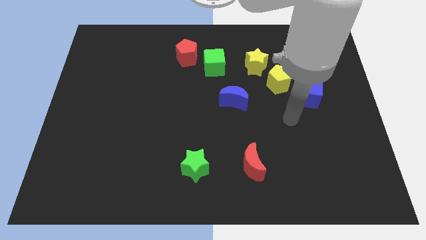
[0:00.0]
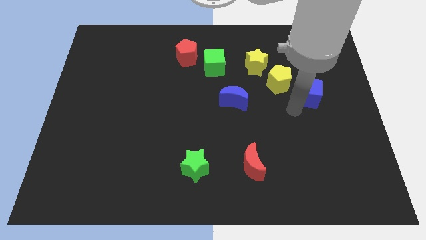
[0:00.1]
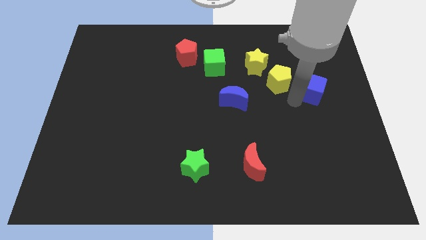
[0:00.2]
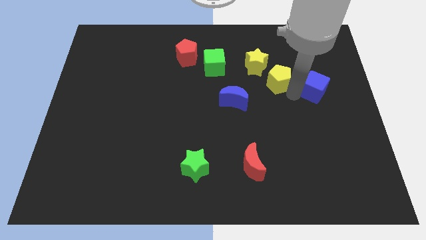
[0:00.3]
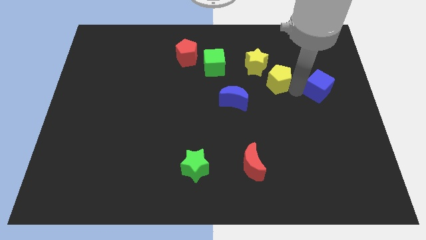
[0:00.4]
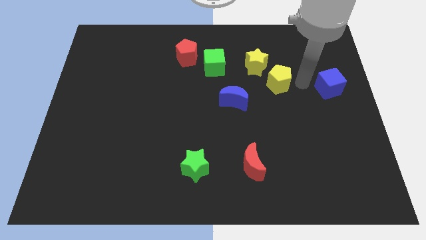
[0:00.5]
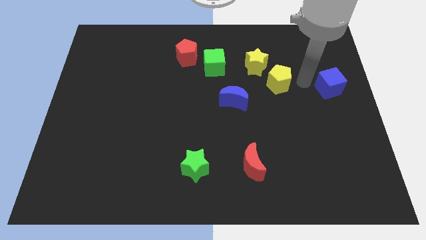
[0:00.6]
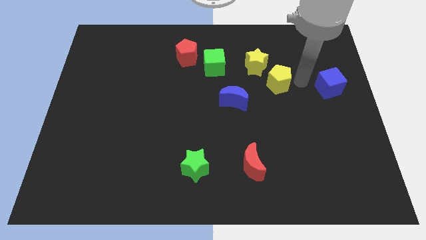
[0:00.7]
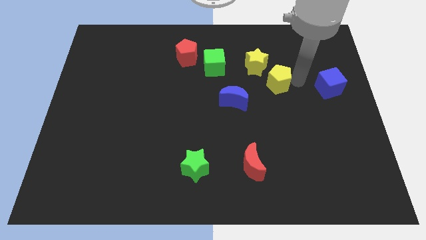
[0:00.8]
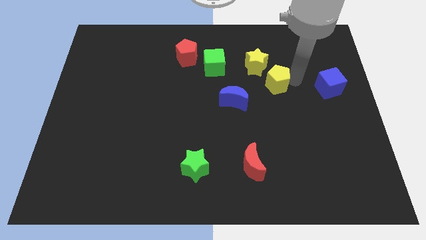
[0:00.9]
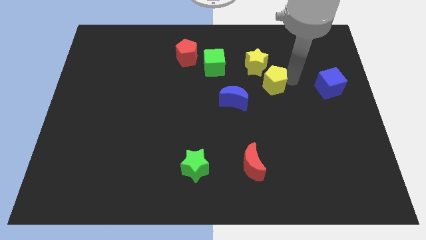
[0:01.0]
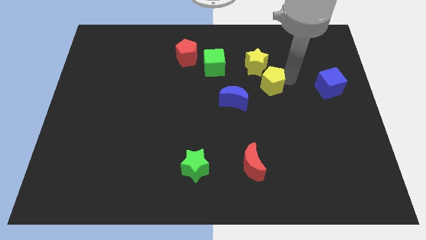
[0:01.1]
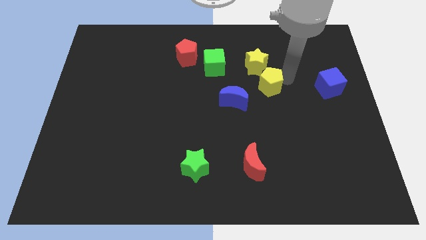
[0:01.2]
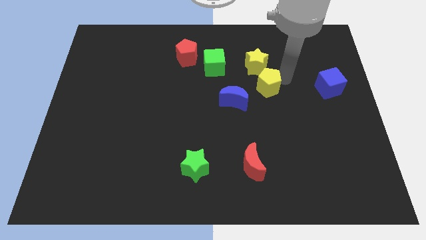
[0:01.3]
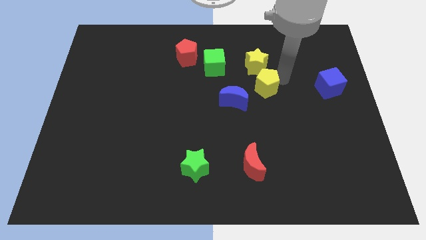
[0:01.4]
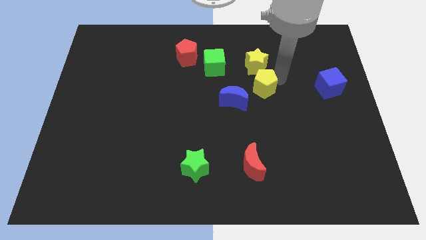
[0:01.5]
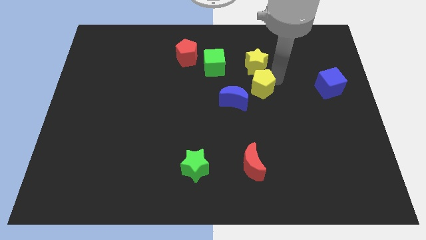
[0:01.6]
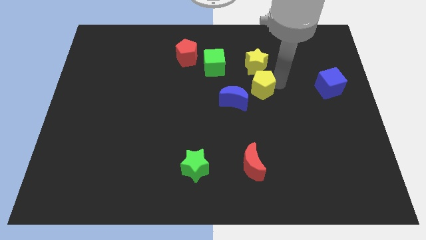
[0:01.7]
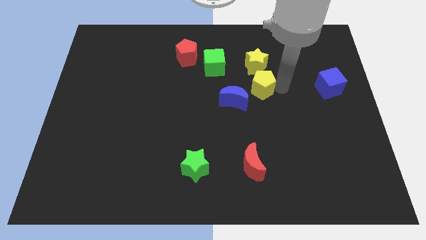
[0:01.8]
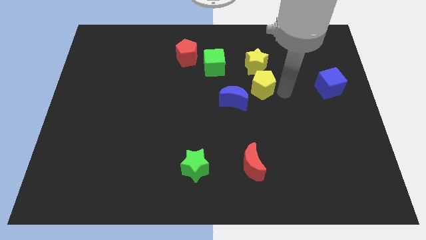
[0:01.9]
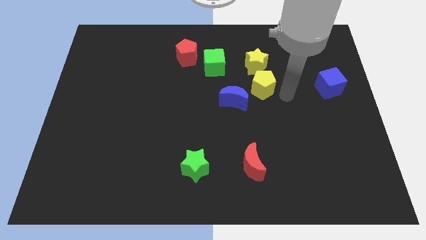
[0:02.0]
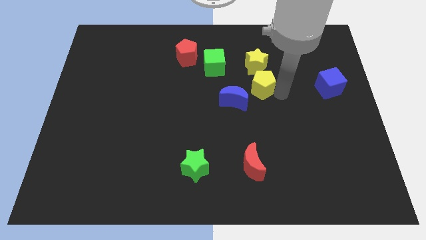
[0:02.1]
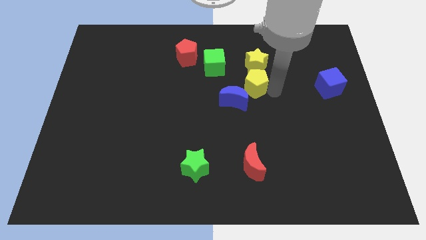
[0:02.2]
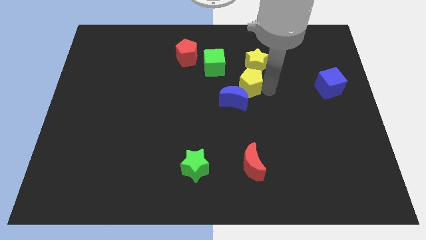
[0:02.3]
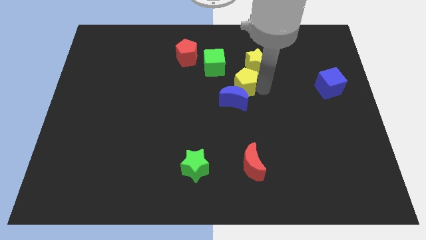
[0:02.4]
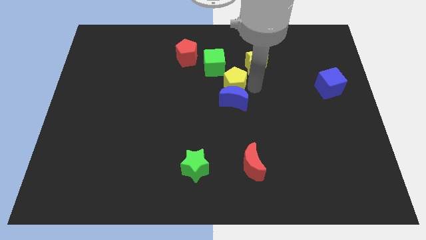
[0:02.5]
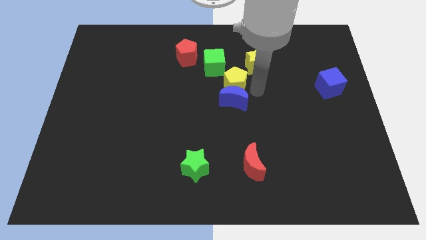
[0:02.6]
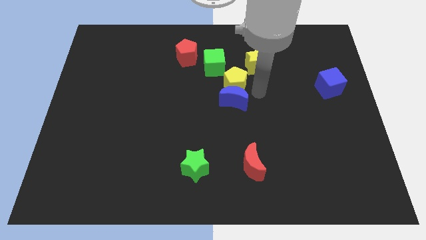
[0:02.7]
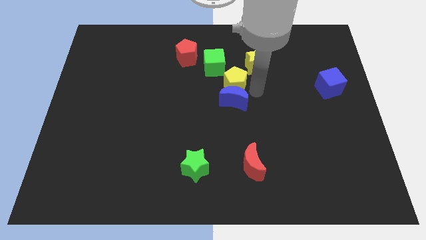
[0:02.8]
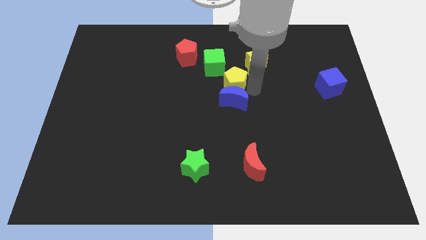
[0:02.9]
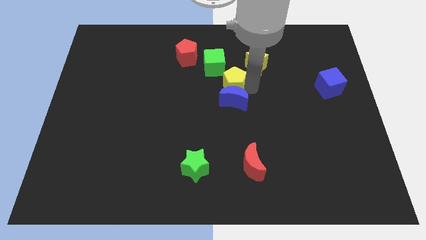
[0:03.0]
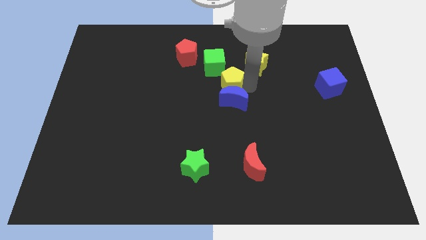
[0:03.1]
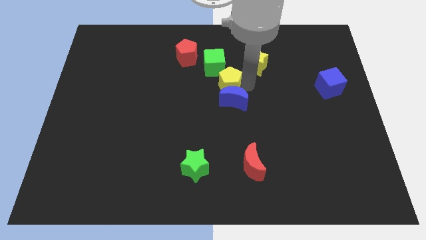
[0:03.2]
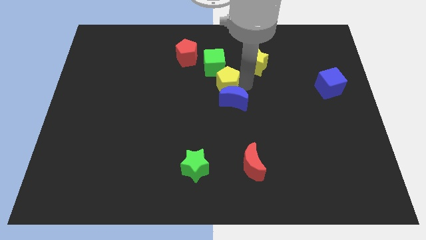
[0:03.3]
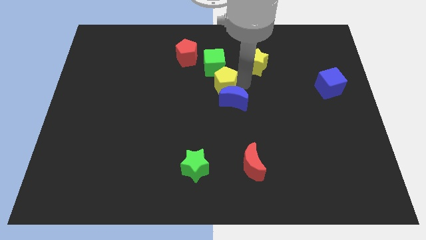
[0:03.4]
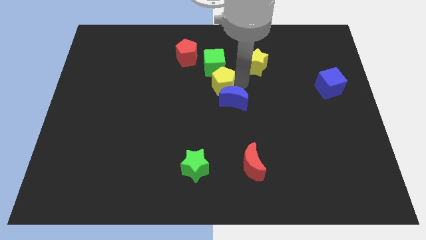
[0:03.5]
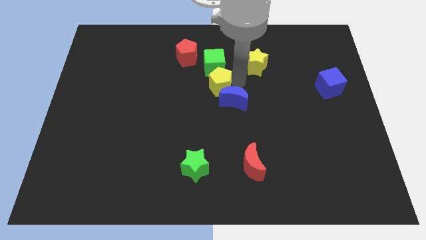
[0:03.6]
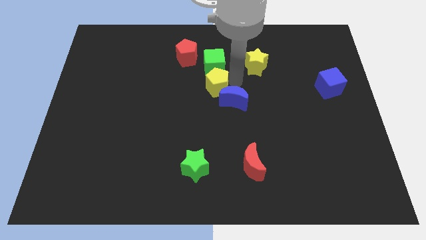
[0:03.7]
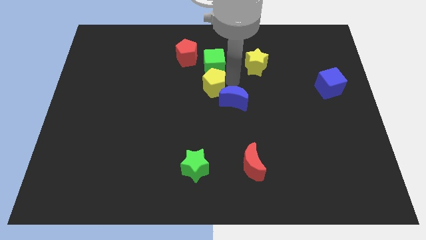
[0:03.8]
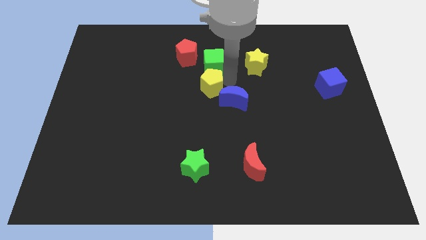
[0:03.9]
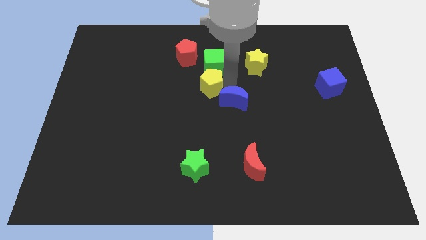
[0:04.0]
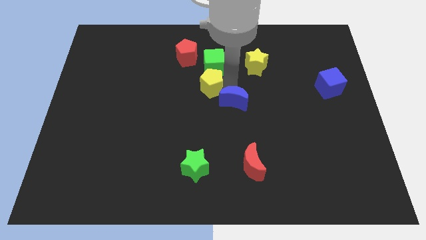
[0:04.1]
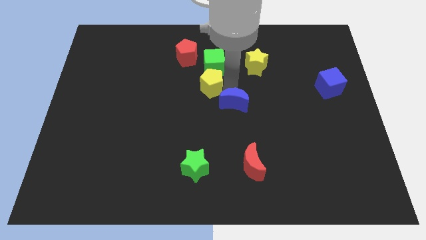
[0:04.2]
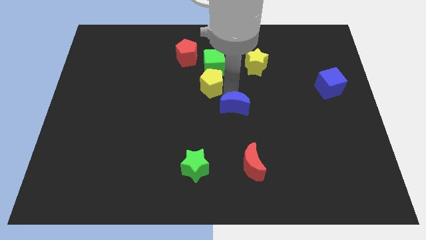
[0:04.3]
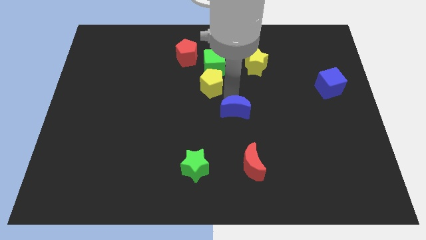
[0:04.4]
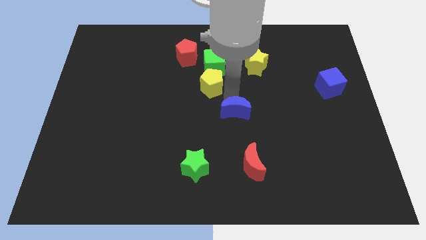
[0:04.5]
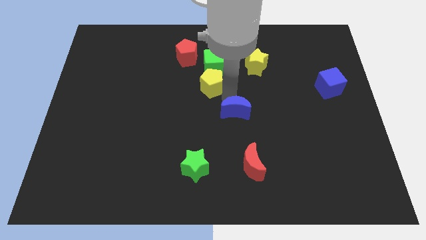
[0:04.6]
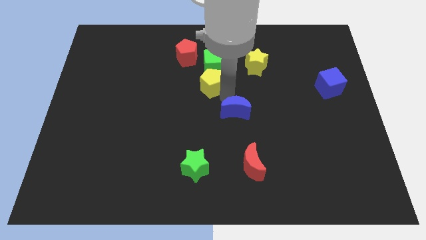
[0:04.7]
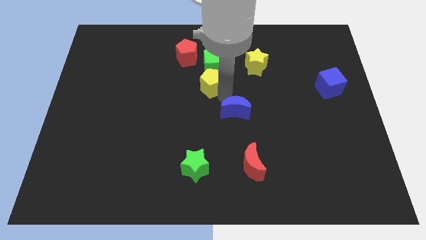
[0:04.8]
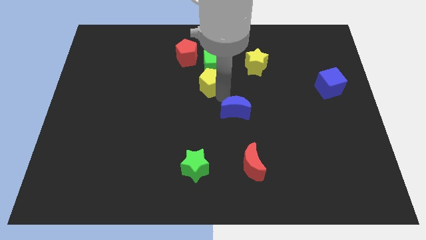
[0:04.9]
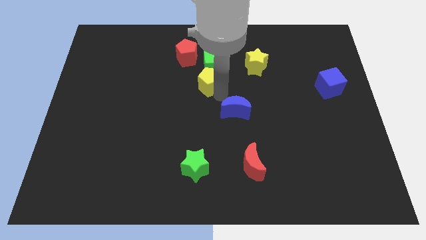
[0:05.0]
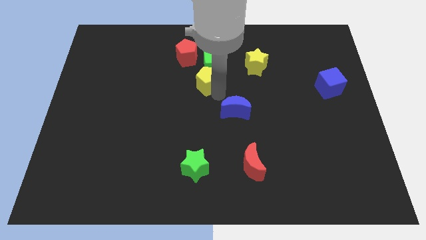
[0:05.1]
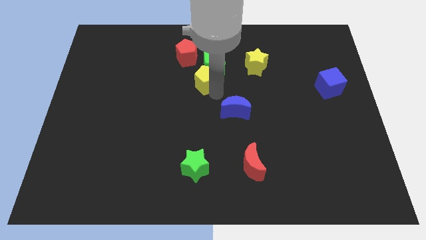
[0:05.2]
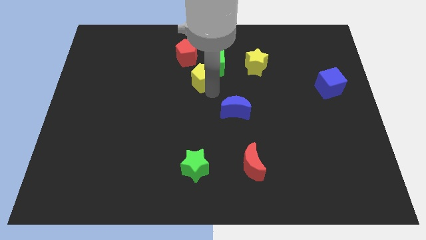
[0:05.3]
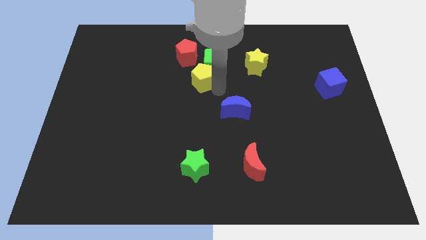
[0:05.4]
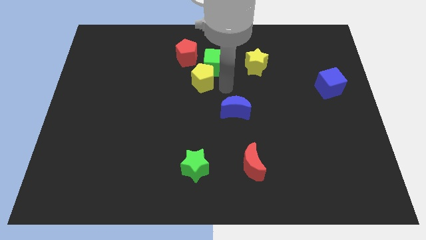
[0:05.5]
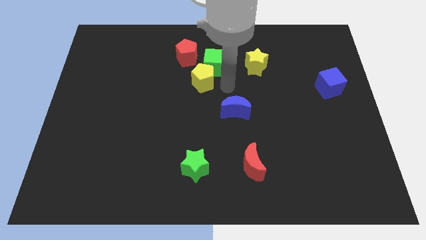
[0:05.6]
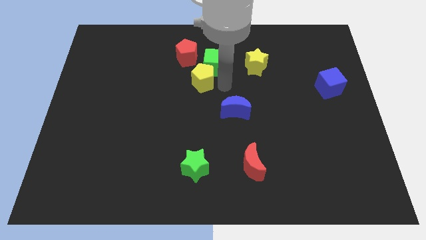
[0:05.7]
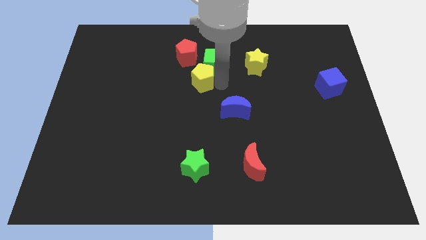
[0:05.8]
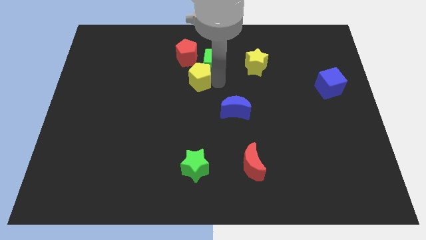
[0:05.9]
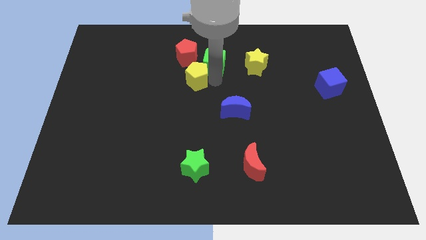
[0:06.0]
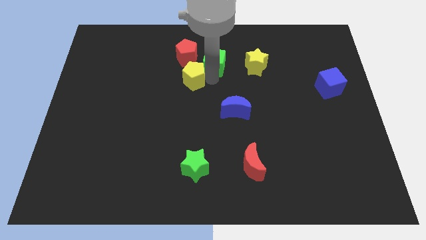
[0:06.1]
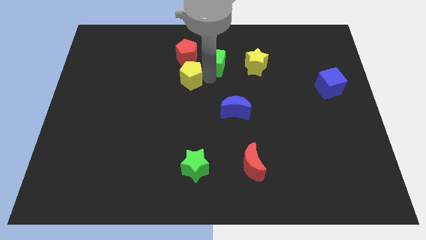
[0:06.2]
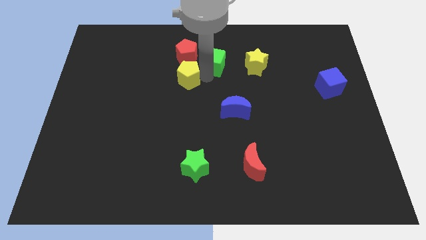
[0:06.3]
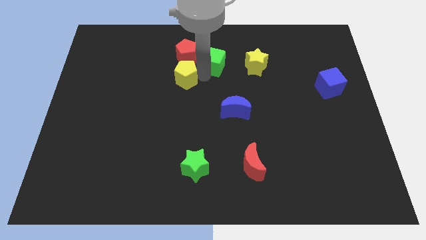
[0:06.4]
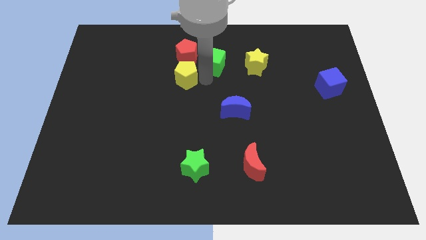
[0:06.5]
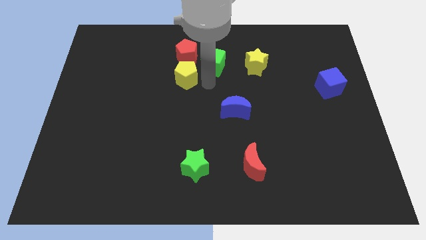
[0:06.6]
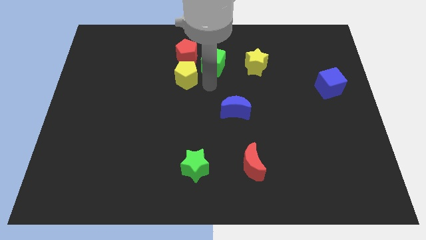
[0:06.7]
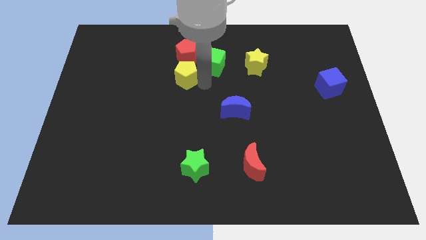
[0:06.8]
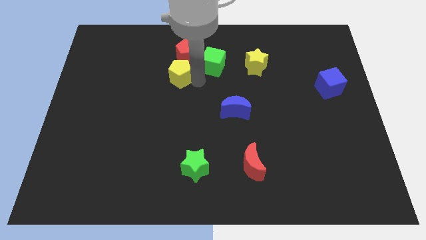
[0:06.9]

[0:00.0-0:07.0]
slide the yellow pentagon diagonally down and to the left of the red pentagon

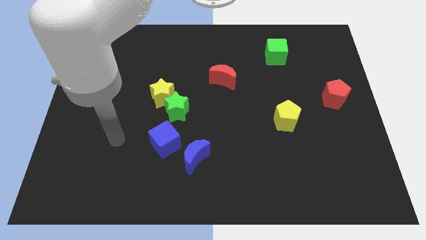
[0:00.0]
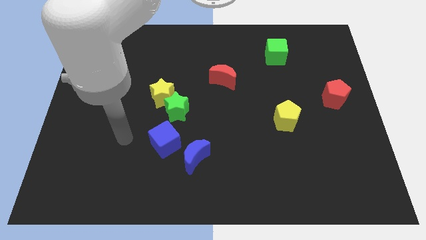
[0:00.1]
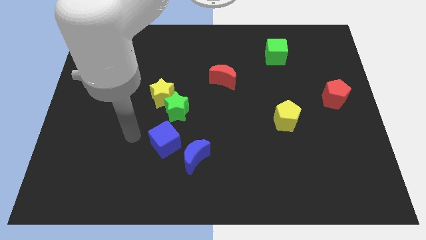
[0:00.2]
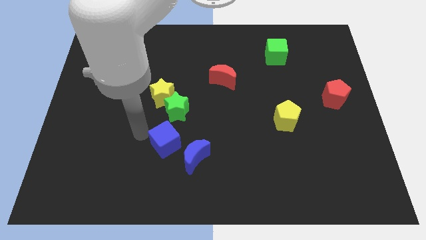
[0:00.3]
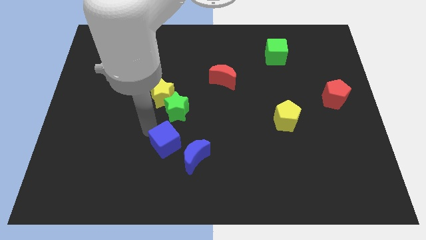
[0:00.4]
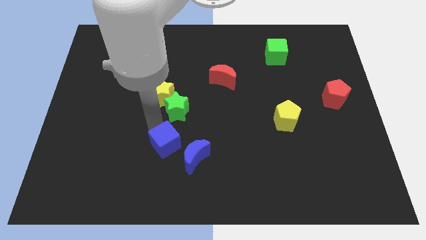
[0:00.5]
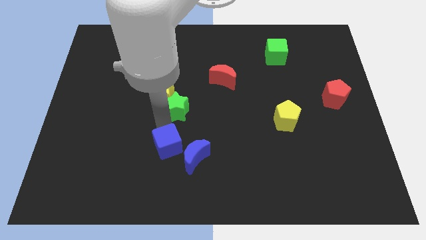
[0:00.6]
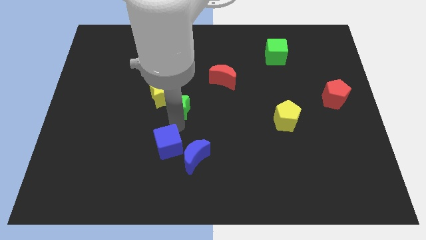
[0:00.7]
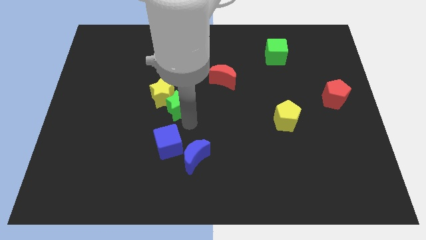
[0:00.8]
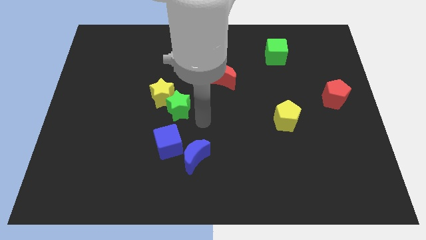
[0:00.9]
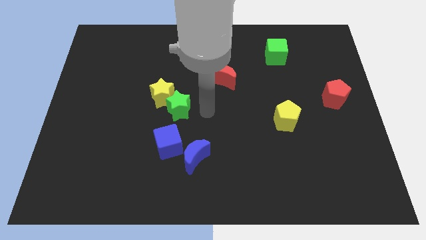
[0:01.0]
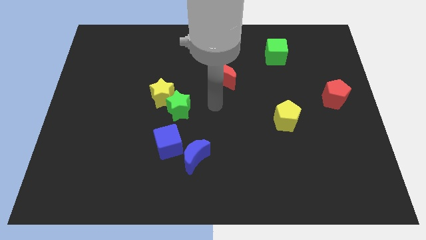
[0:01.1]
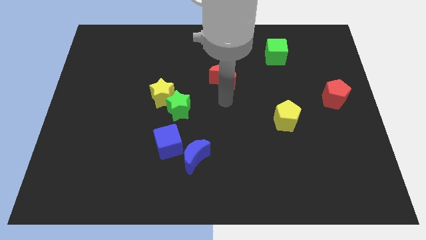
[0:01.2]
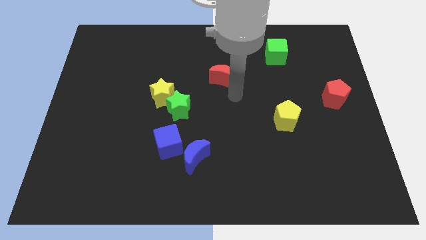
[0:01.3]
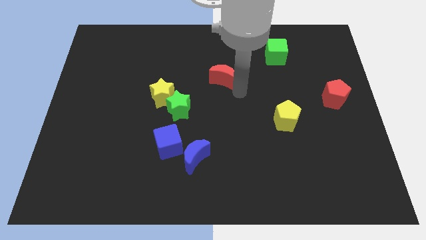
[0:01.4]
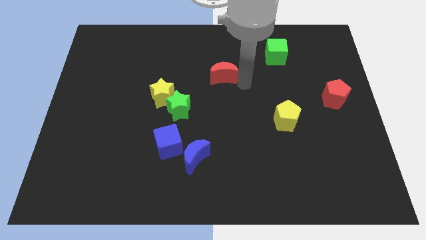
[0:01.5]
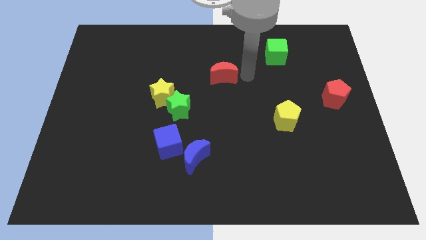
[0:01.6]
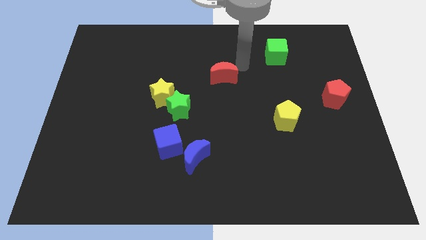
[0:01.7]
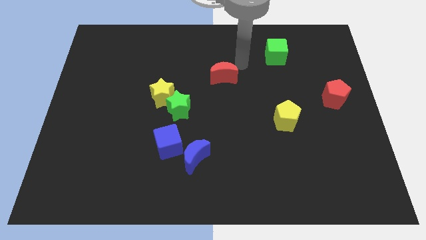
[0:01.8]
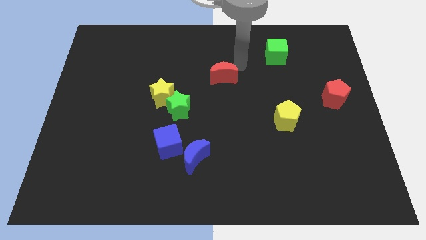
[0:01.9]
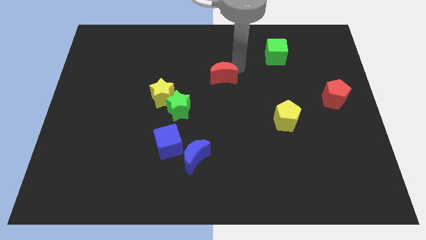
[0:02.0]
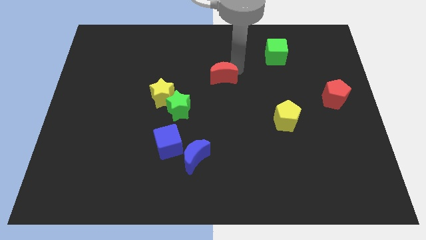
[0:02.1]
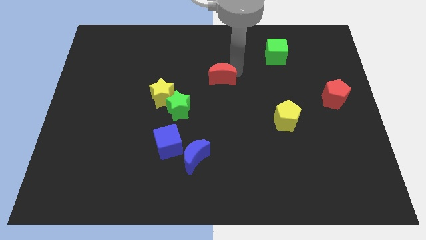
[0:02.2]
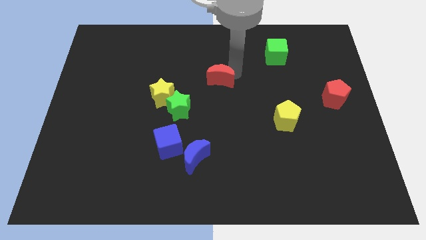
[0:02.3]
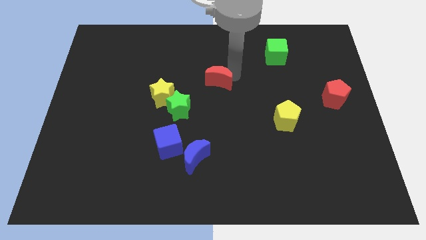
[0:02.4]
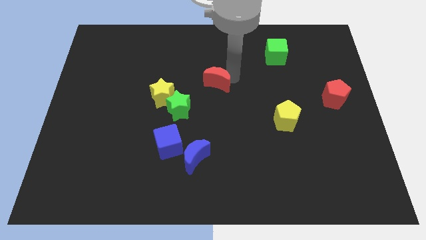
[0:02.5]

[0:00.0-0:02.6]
push the red moon to the top right of the green star
